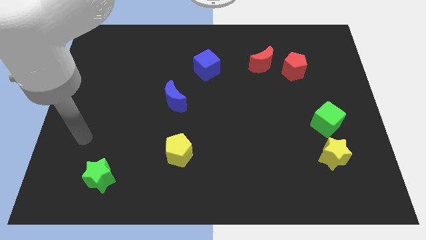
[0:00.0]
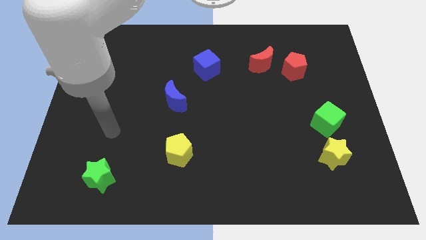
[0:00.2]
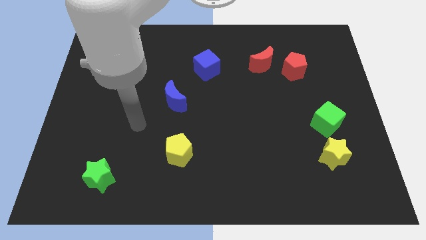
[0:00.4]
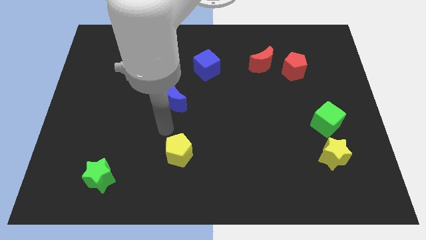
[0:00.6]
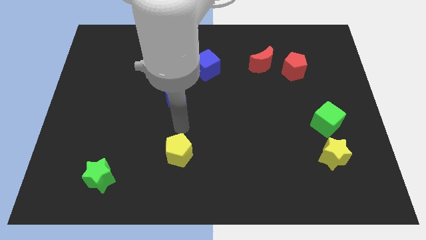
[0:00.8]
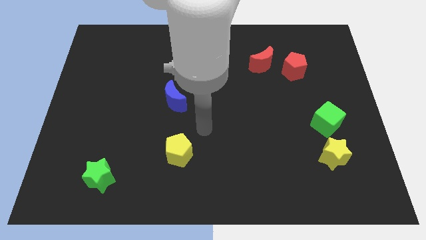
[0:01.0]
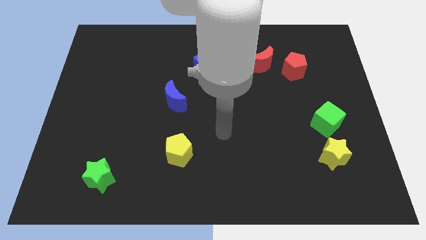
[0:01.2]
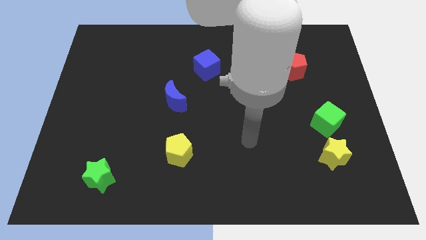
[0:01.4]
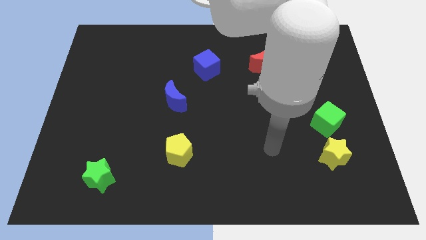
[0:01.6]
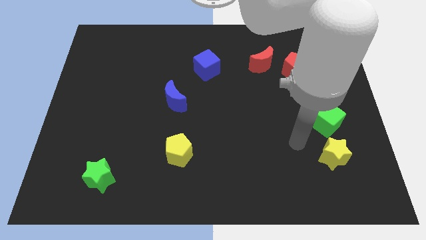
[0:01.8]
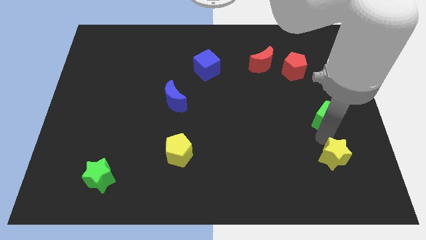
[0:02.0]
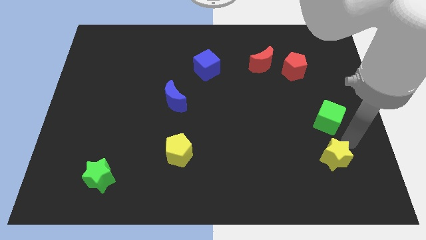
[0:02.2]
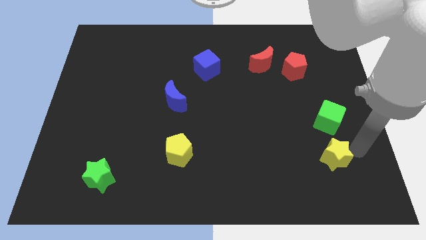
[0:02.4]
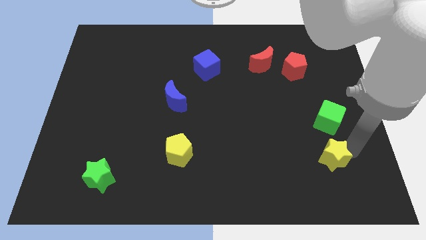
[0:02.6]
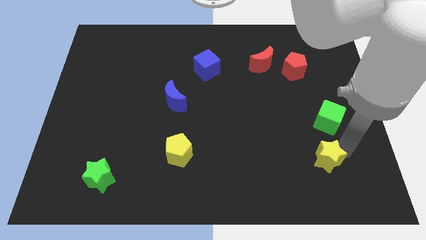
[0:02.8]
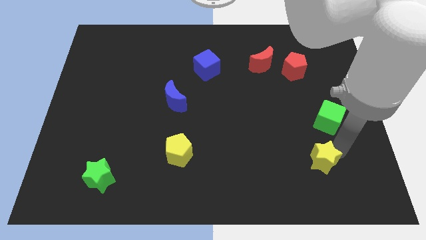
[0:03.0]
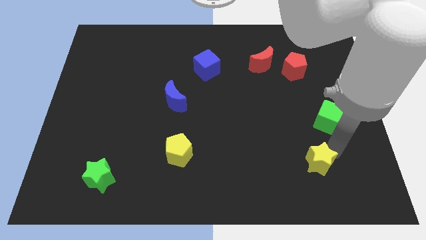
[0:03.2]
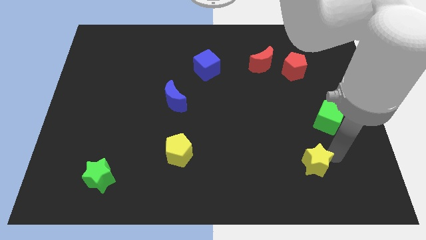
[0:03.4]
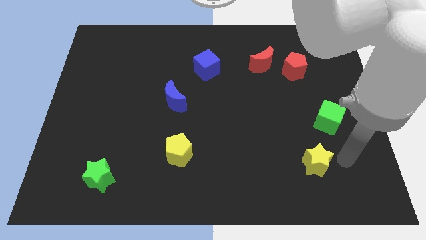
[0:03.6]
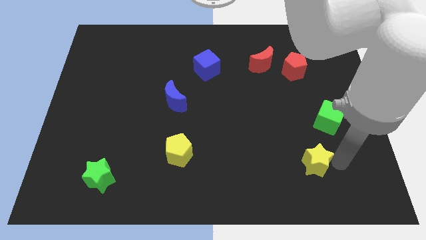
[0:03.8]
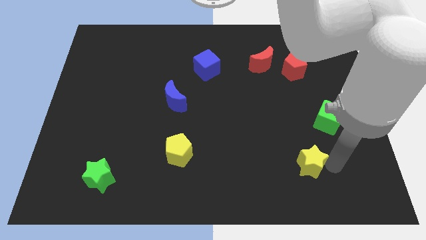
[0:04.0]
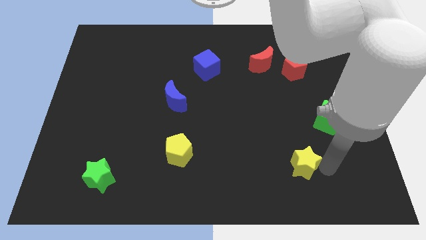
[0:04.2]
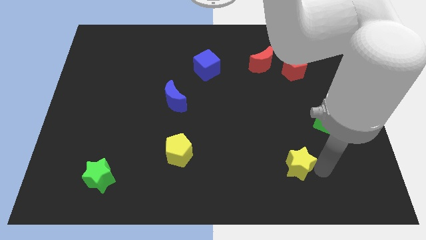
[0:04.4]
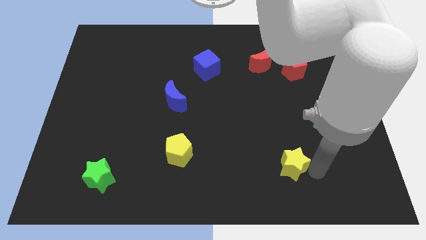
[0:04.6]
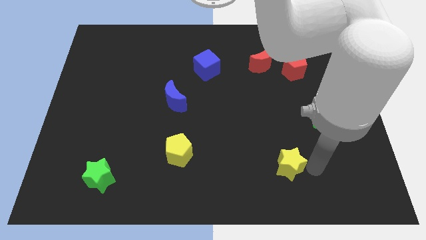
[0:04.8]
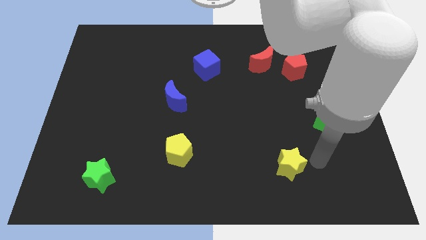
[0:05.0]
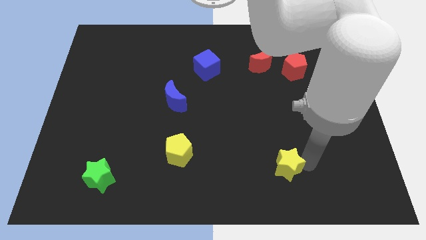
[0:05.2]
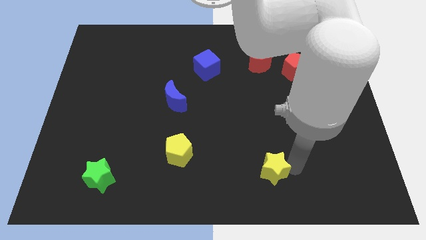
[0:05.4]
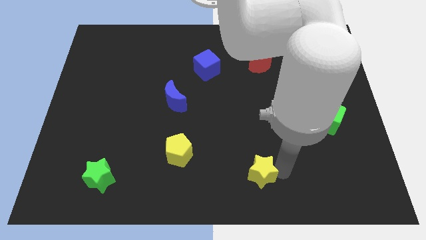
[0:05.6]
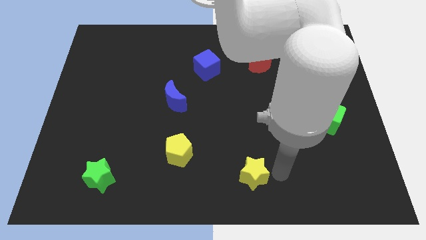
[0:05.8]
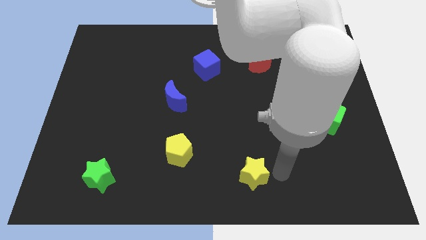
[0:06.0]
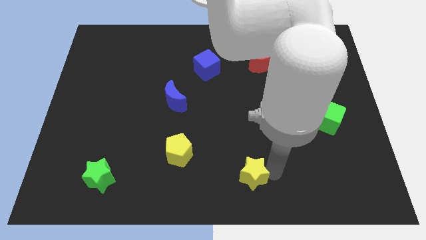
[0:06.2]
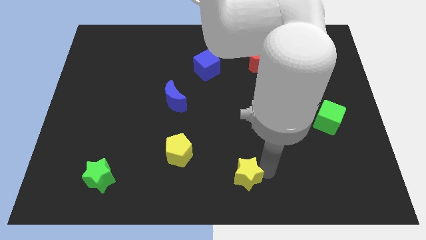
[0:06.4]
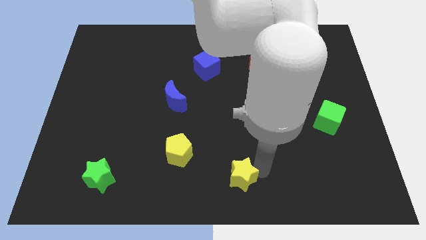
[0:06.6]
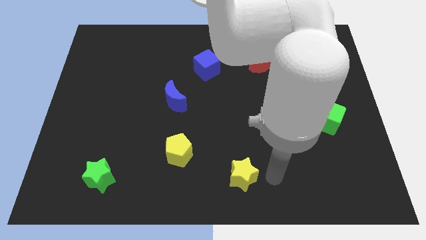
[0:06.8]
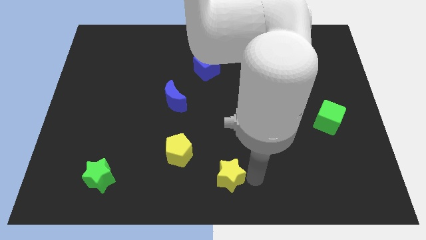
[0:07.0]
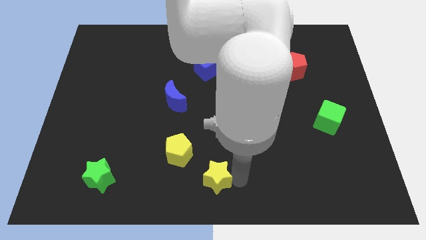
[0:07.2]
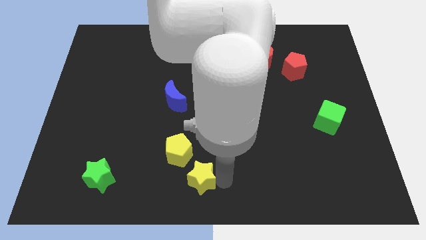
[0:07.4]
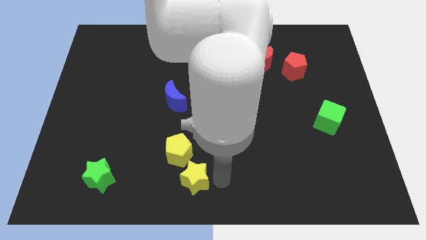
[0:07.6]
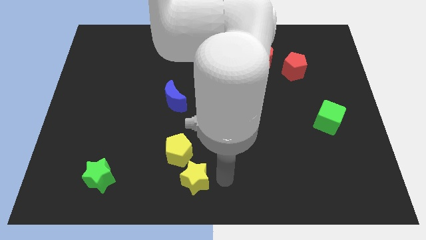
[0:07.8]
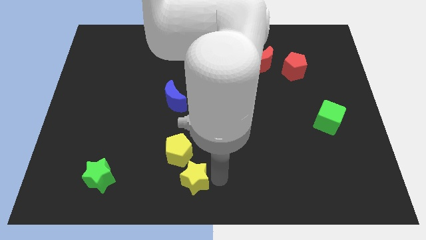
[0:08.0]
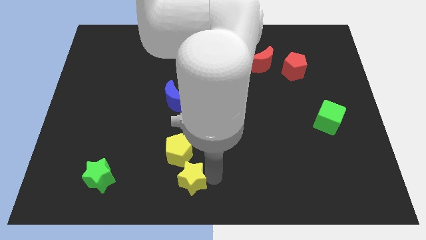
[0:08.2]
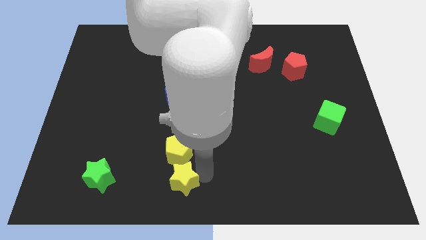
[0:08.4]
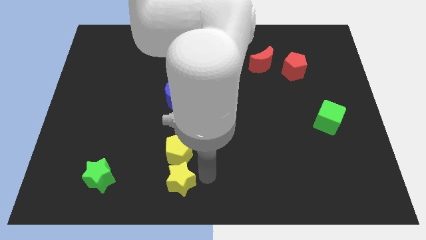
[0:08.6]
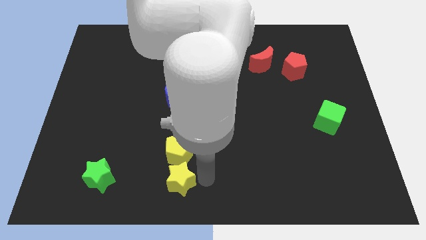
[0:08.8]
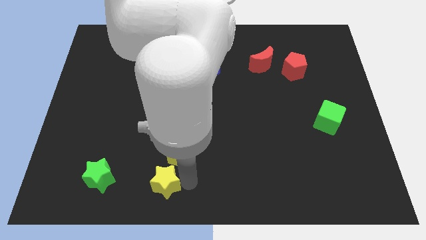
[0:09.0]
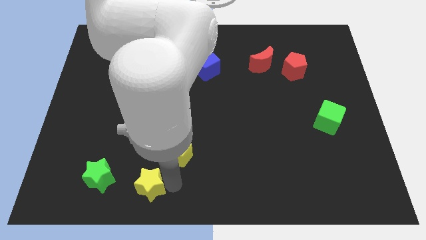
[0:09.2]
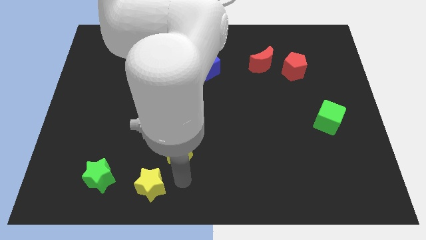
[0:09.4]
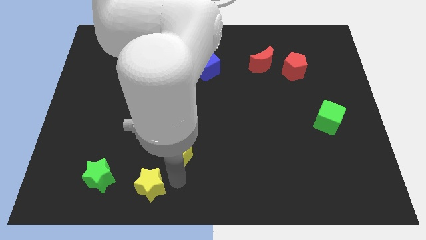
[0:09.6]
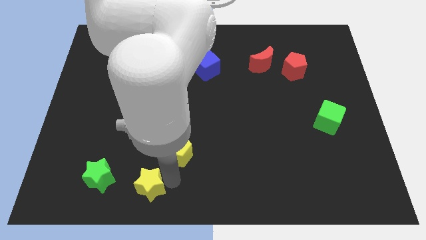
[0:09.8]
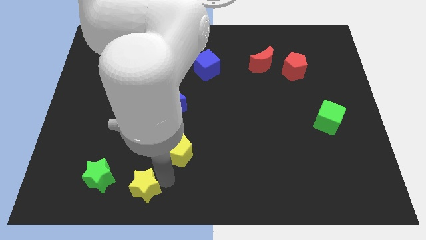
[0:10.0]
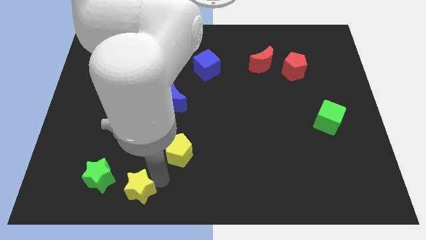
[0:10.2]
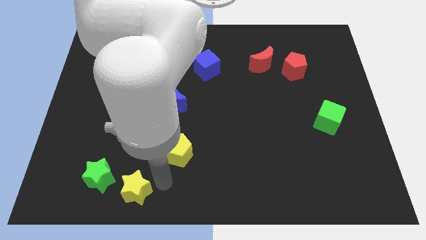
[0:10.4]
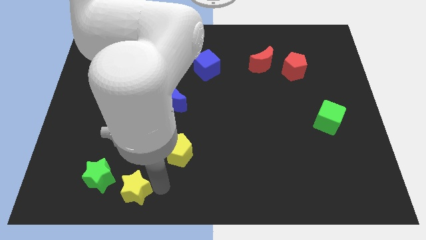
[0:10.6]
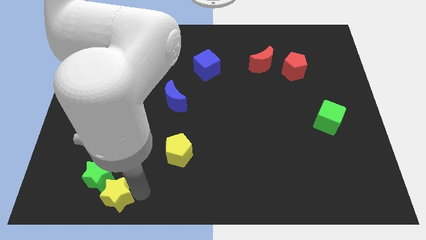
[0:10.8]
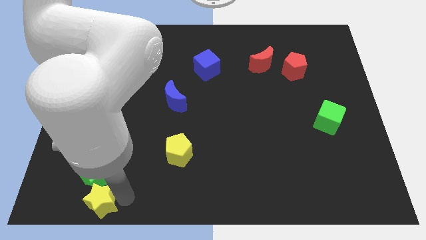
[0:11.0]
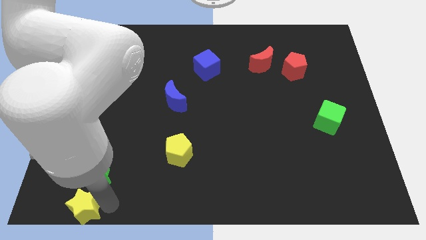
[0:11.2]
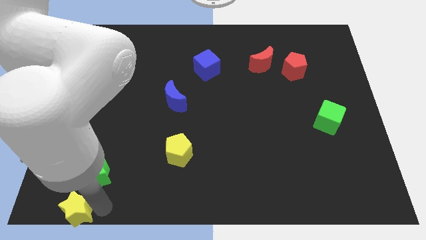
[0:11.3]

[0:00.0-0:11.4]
slide the yellow star to the bottom left corner

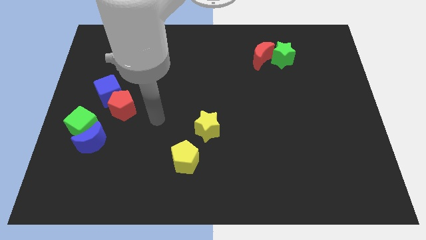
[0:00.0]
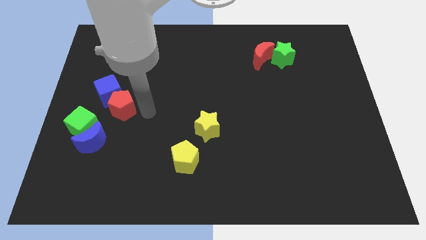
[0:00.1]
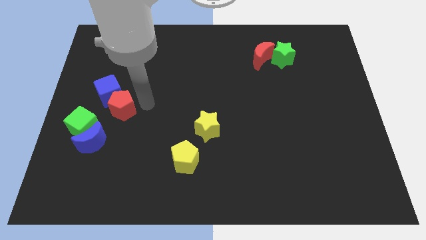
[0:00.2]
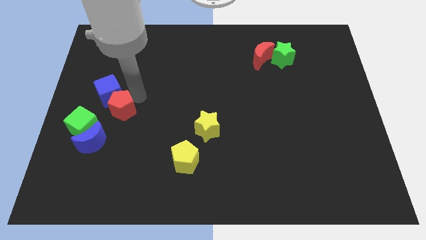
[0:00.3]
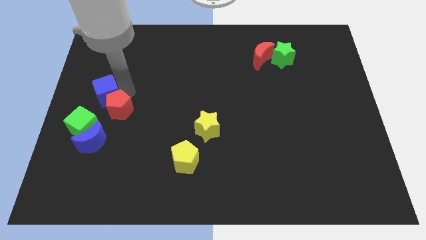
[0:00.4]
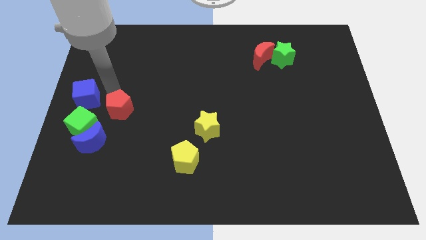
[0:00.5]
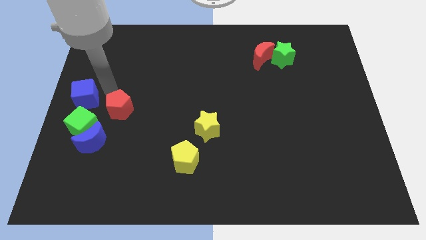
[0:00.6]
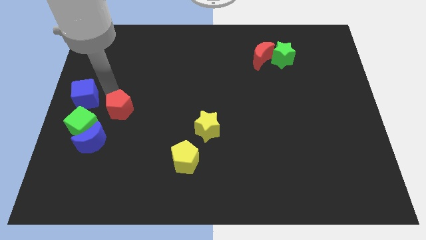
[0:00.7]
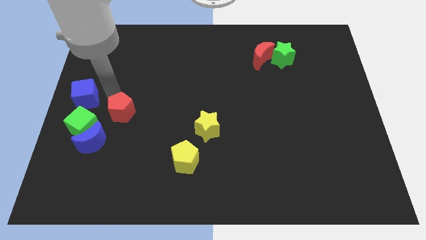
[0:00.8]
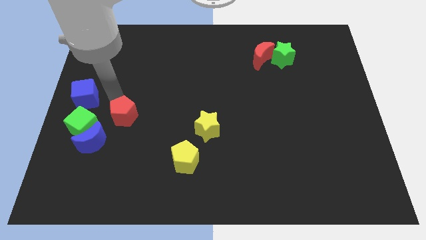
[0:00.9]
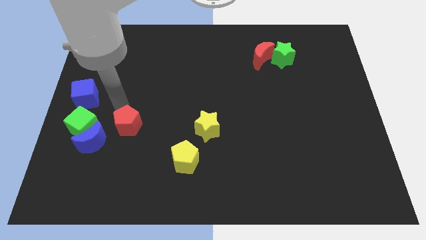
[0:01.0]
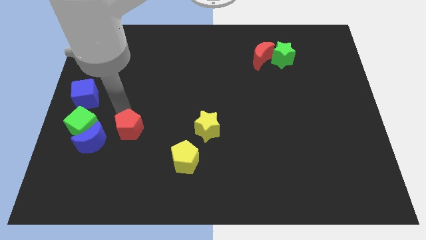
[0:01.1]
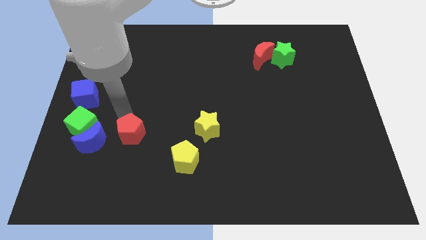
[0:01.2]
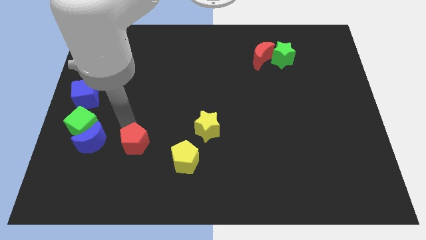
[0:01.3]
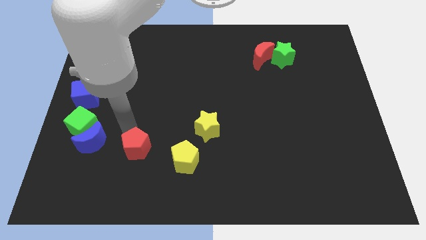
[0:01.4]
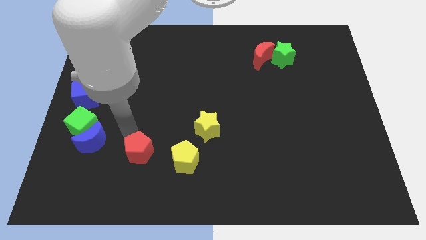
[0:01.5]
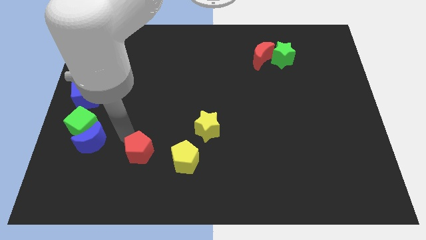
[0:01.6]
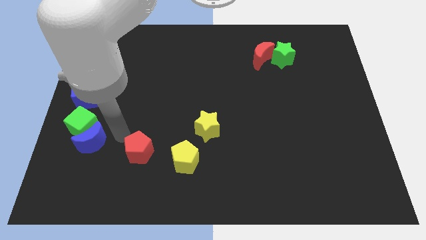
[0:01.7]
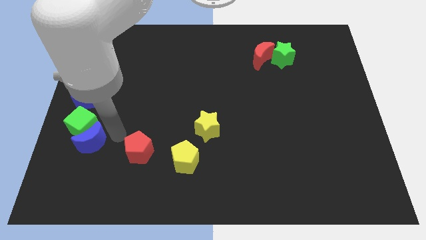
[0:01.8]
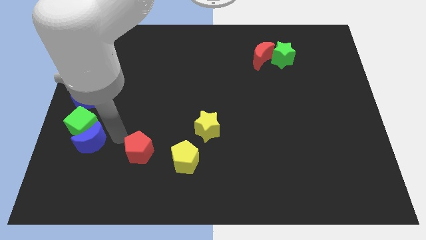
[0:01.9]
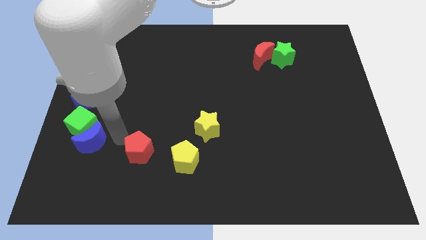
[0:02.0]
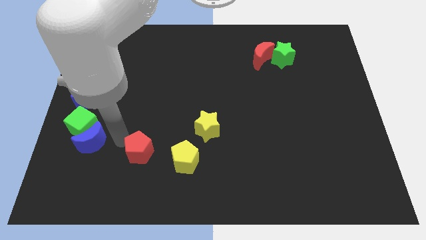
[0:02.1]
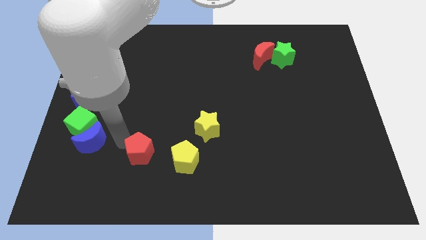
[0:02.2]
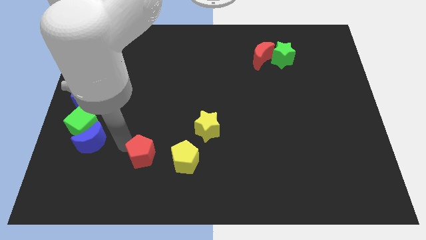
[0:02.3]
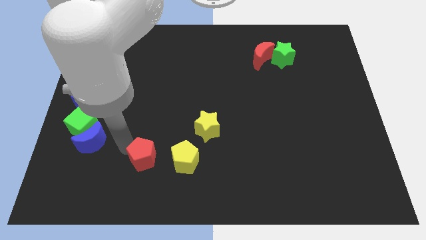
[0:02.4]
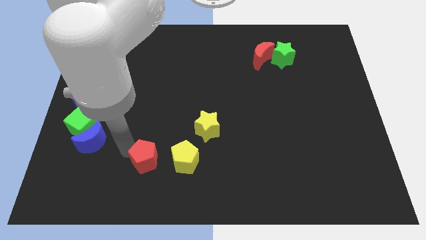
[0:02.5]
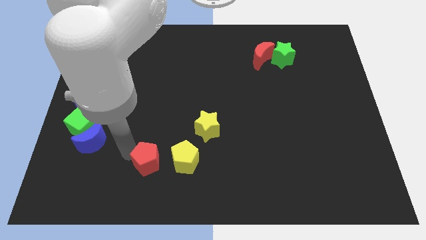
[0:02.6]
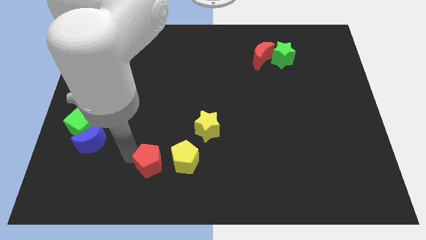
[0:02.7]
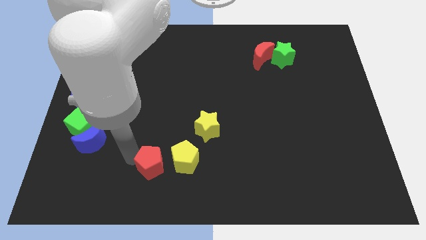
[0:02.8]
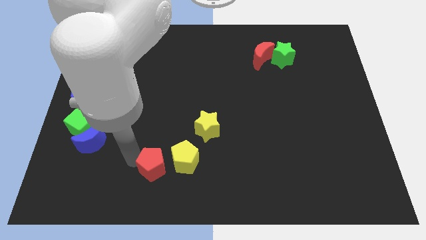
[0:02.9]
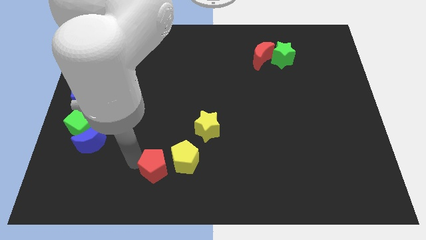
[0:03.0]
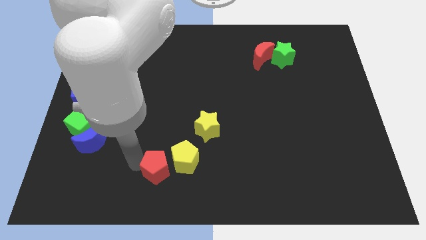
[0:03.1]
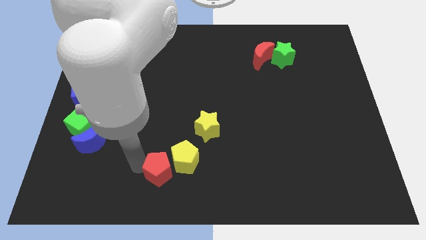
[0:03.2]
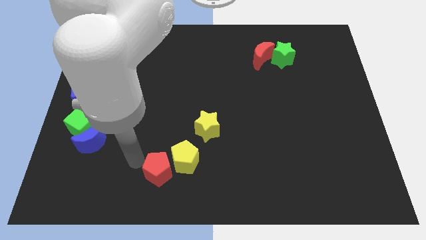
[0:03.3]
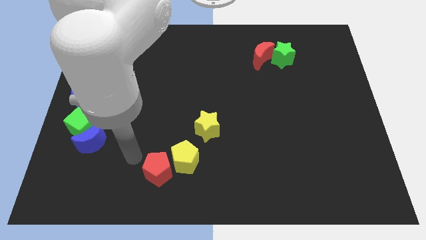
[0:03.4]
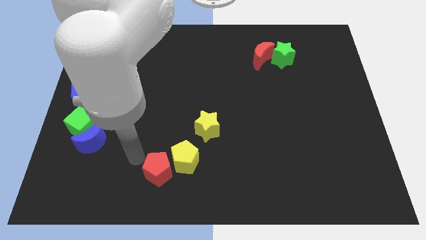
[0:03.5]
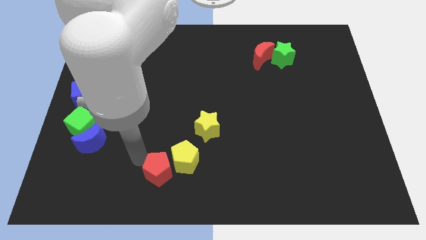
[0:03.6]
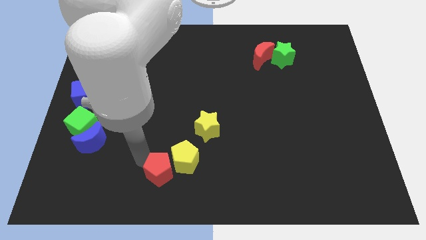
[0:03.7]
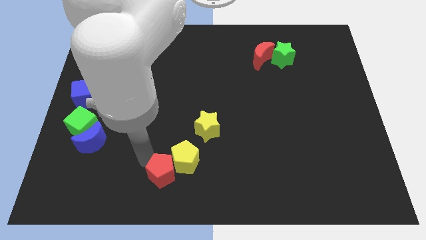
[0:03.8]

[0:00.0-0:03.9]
slide the red pentagon to the bottom side
